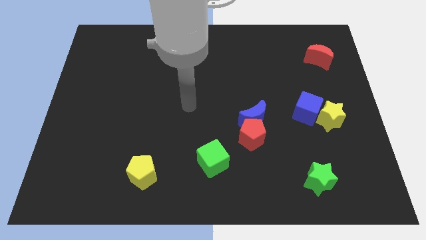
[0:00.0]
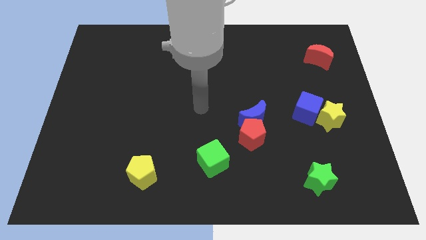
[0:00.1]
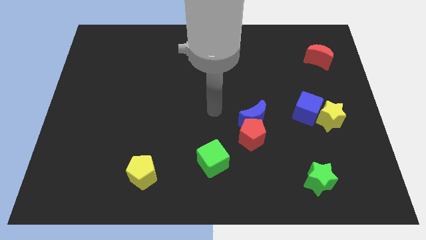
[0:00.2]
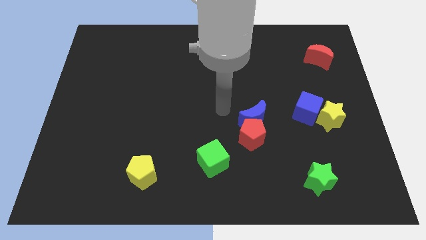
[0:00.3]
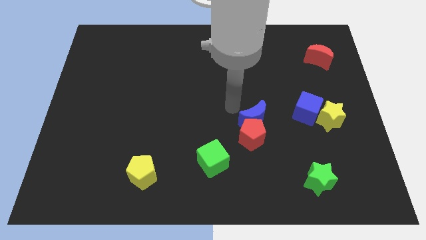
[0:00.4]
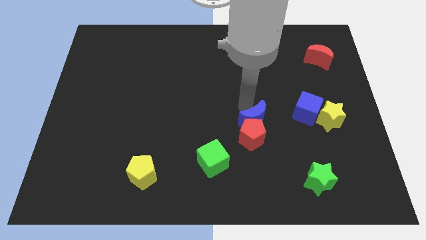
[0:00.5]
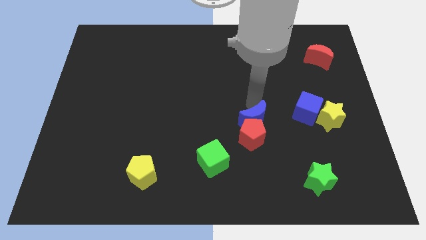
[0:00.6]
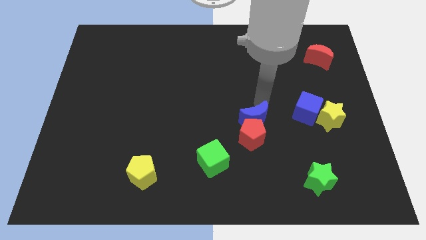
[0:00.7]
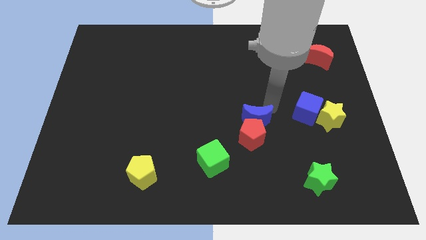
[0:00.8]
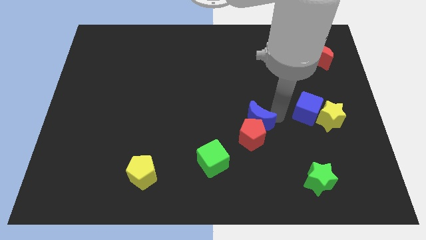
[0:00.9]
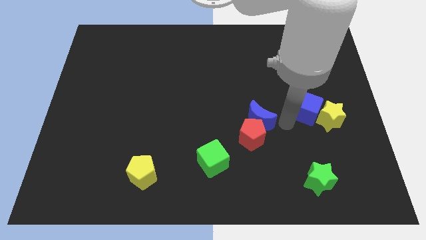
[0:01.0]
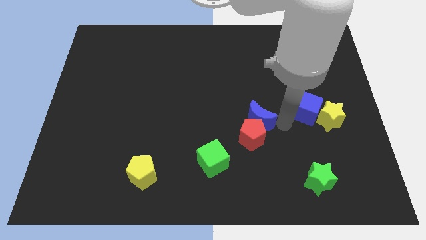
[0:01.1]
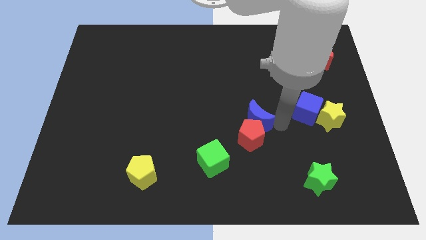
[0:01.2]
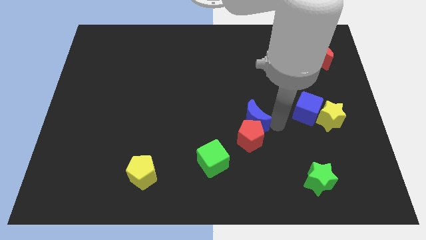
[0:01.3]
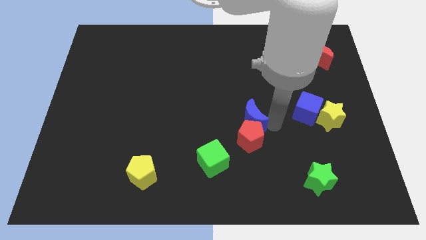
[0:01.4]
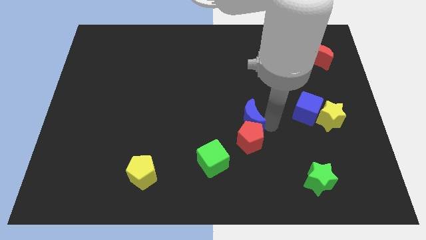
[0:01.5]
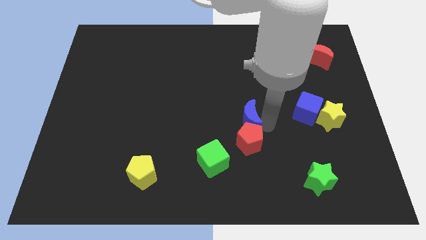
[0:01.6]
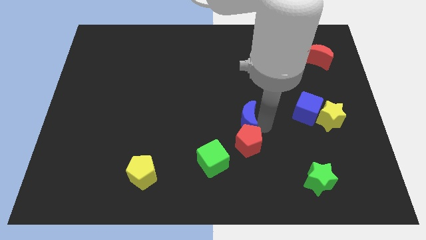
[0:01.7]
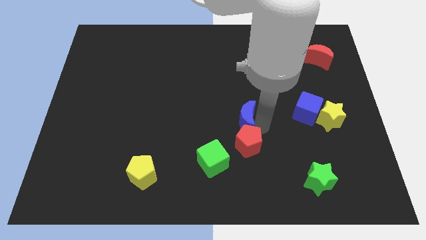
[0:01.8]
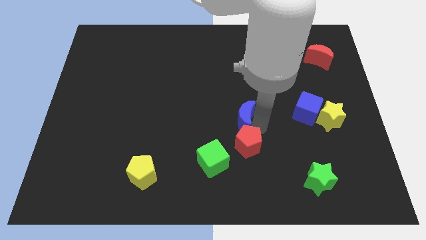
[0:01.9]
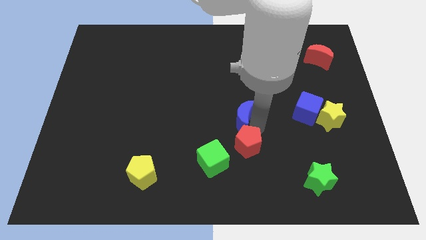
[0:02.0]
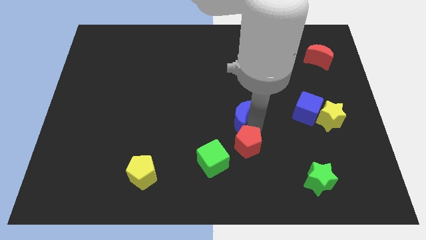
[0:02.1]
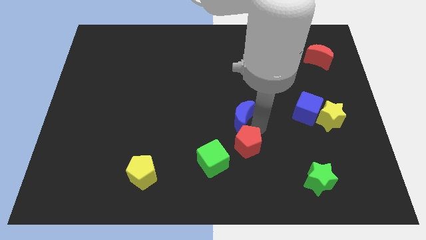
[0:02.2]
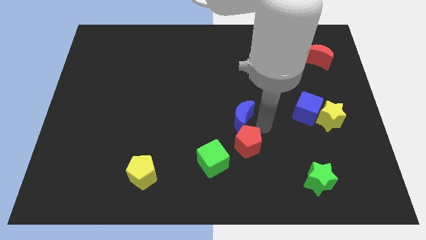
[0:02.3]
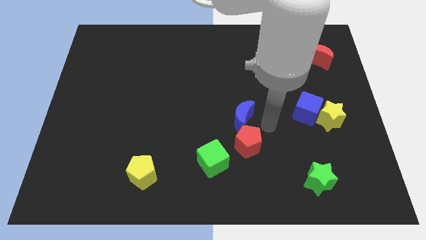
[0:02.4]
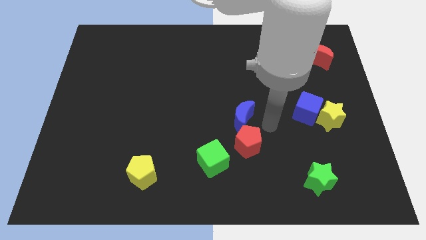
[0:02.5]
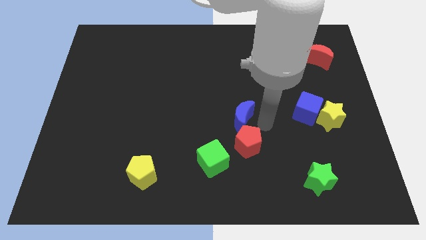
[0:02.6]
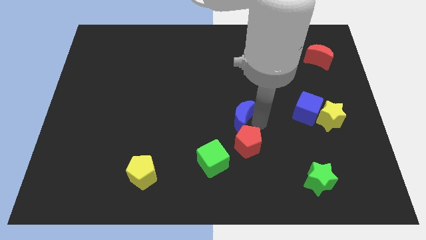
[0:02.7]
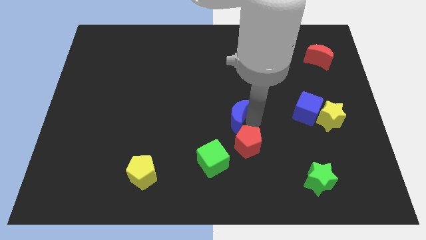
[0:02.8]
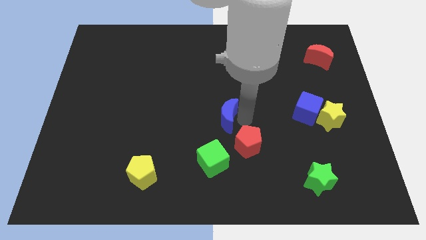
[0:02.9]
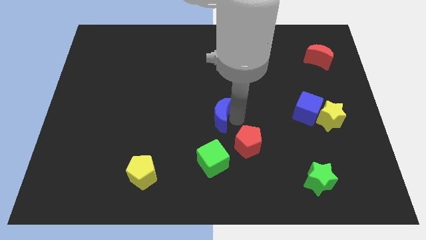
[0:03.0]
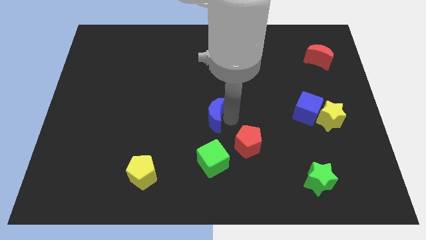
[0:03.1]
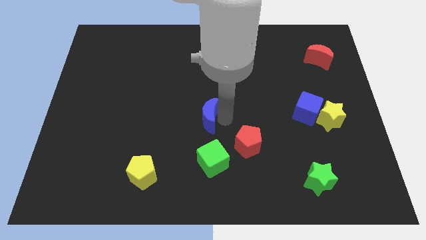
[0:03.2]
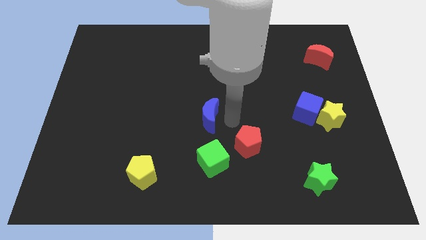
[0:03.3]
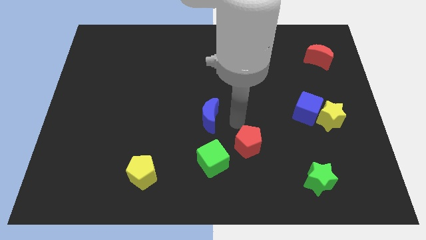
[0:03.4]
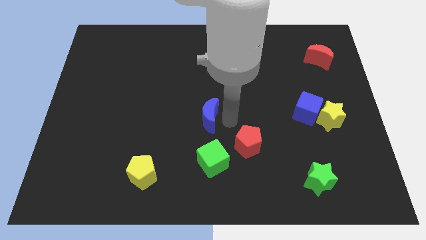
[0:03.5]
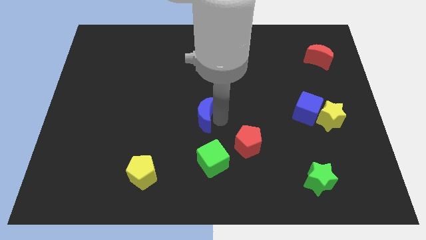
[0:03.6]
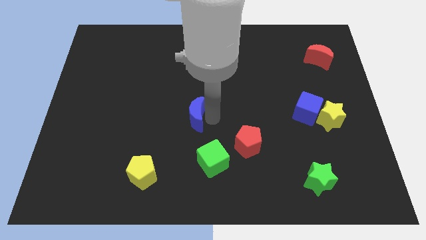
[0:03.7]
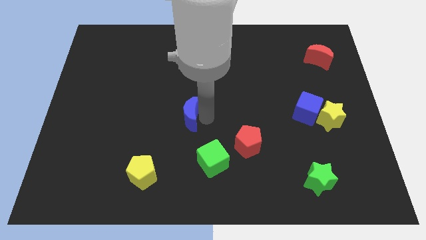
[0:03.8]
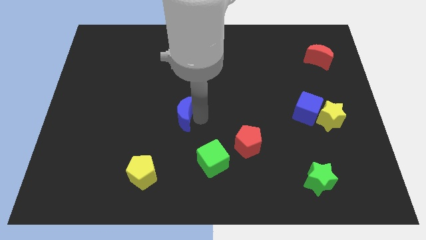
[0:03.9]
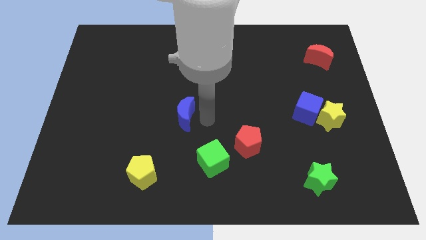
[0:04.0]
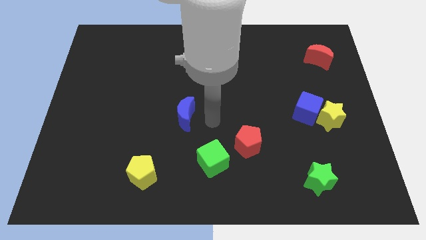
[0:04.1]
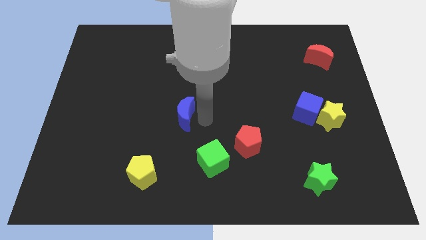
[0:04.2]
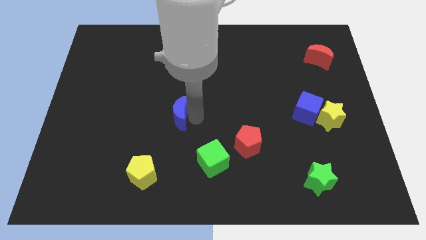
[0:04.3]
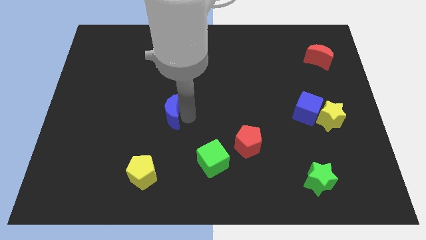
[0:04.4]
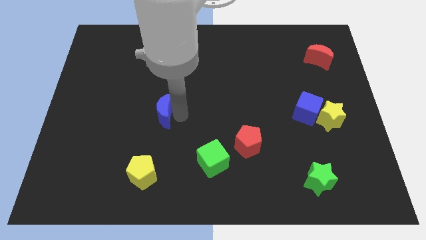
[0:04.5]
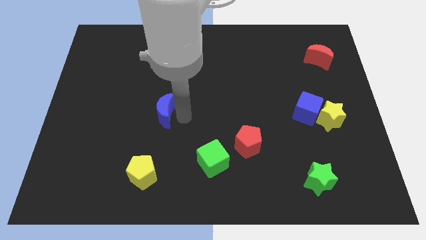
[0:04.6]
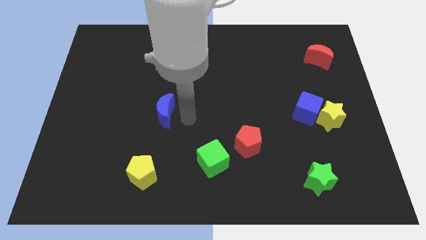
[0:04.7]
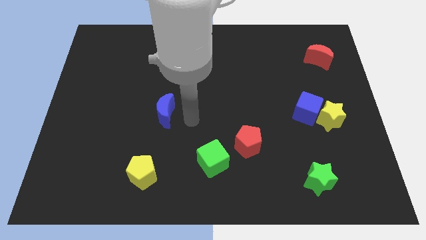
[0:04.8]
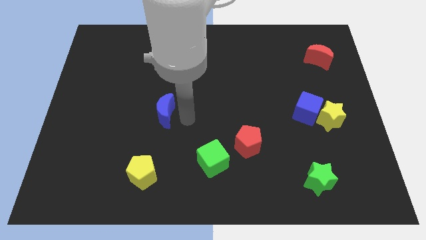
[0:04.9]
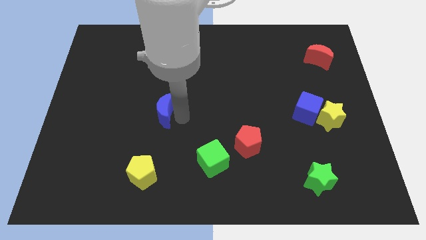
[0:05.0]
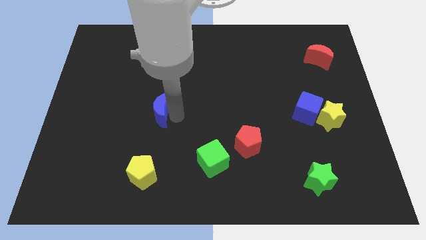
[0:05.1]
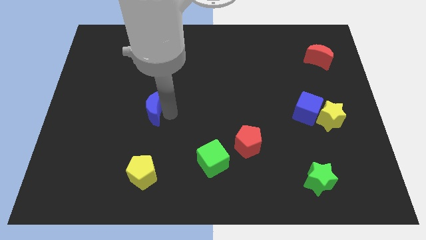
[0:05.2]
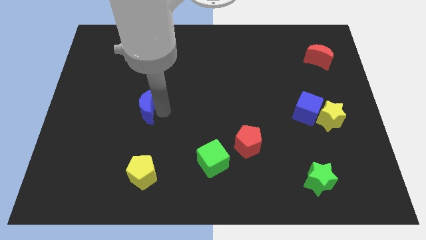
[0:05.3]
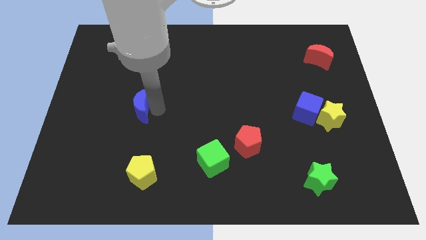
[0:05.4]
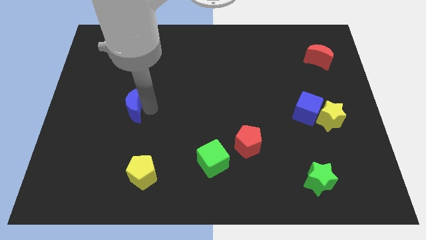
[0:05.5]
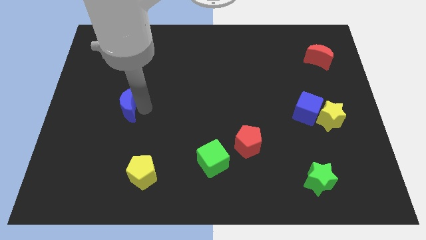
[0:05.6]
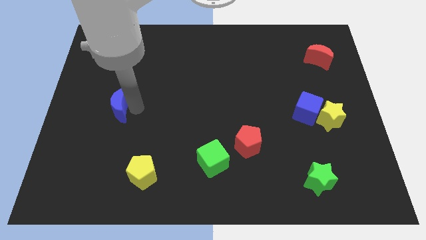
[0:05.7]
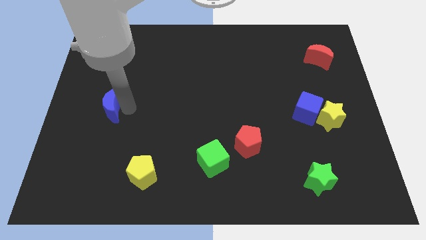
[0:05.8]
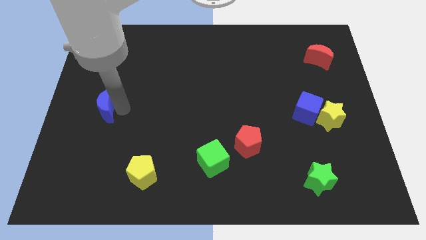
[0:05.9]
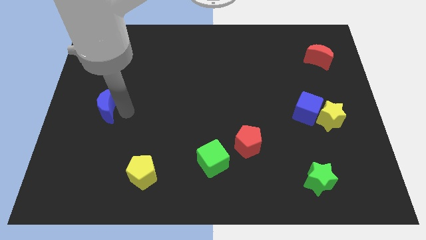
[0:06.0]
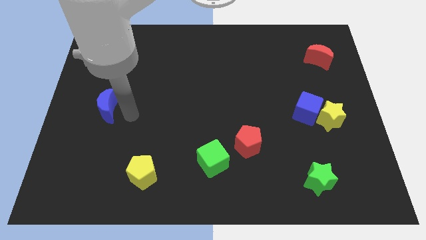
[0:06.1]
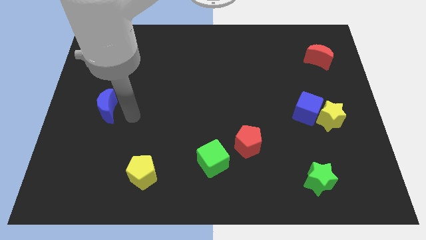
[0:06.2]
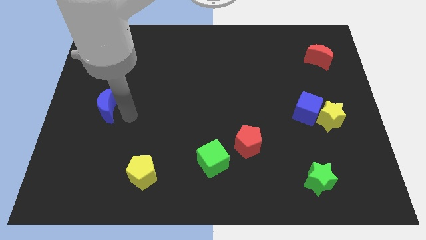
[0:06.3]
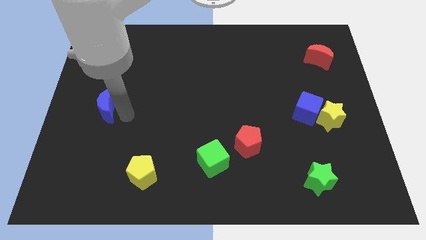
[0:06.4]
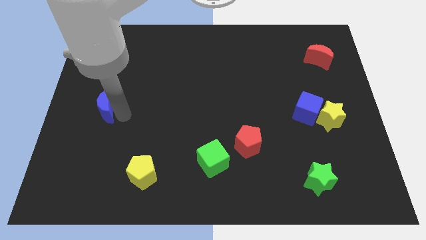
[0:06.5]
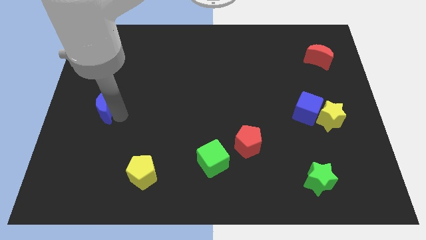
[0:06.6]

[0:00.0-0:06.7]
put the blue moon to the left side of the board
